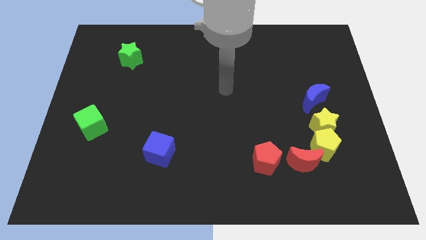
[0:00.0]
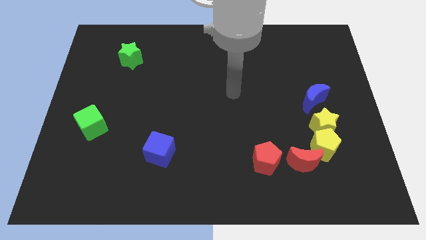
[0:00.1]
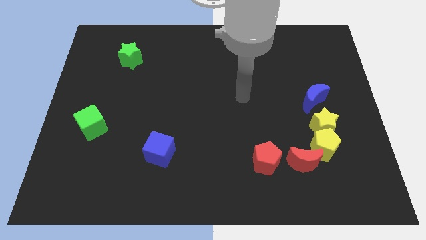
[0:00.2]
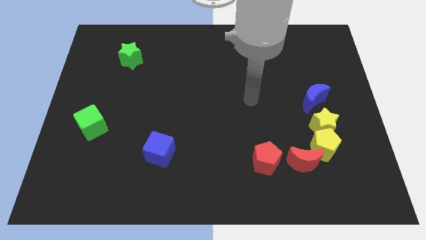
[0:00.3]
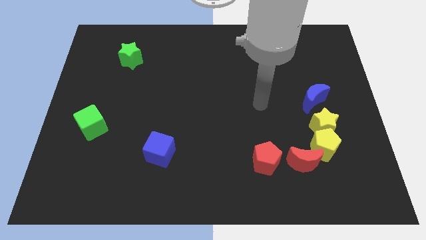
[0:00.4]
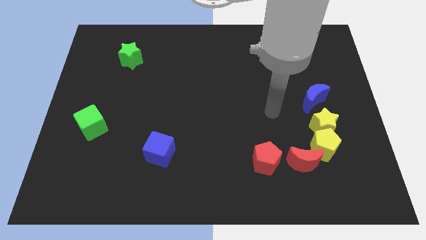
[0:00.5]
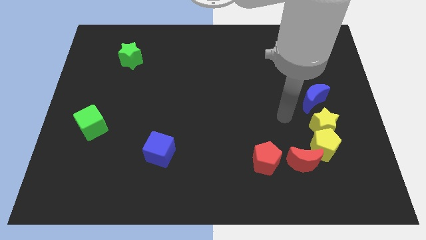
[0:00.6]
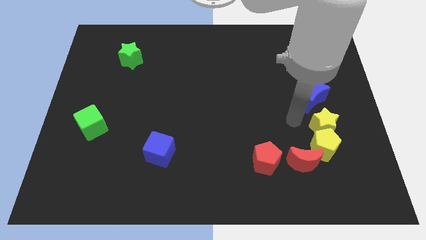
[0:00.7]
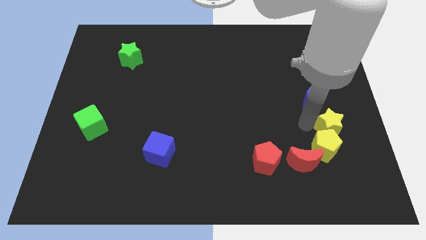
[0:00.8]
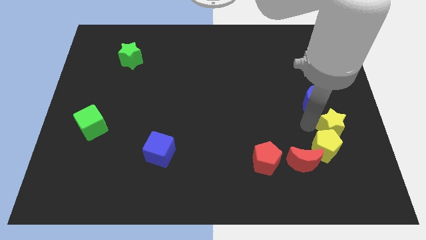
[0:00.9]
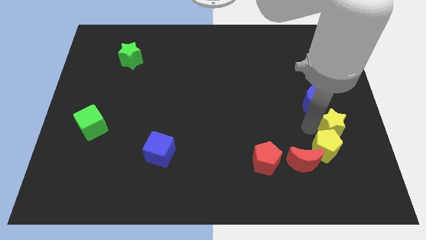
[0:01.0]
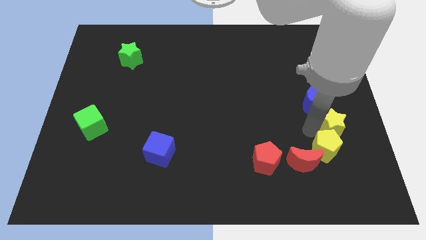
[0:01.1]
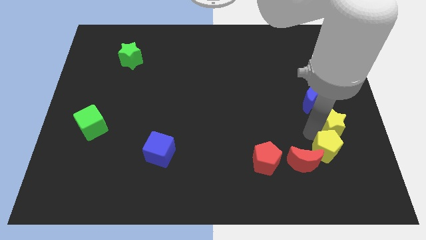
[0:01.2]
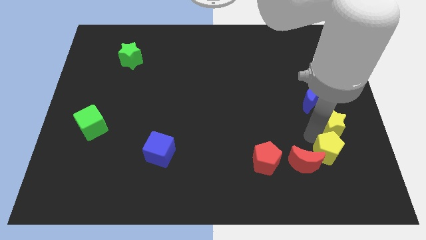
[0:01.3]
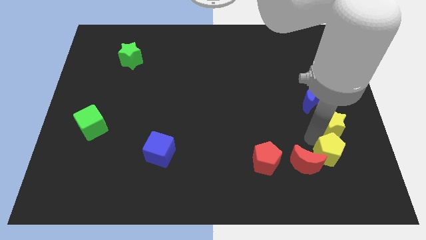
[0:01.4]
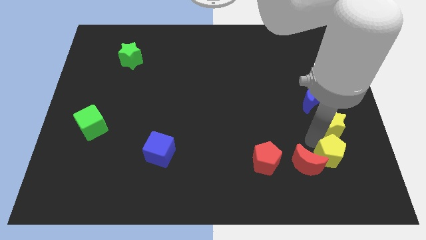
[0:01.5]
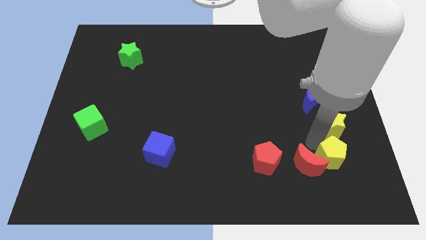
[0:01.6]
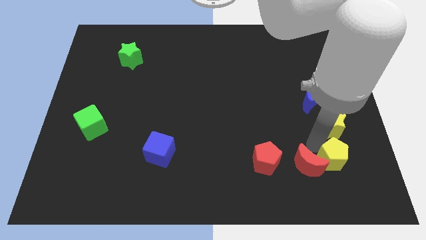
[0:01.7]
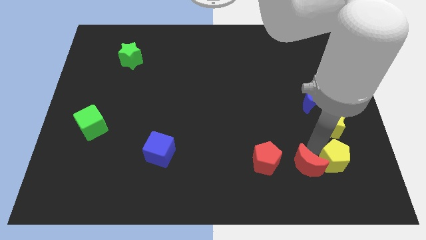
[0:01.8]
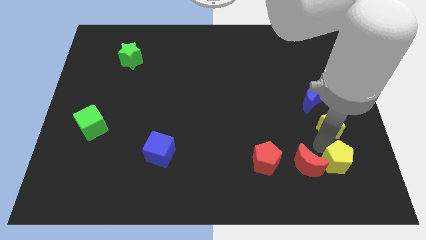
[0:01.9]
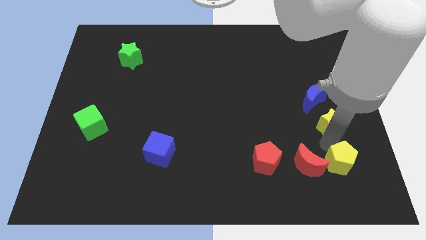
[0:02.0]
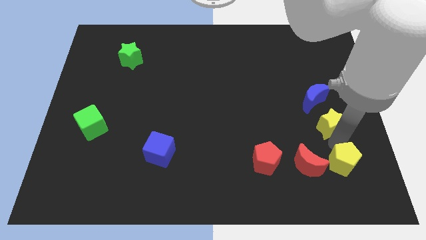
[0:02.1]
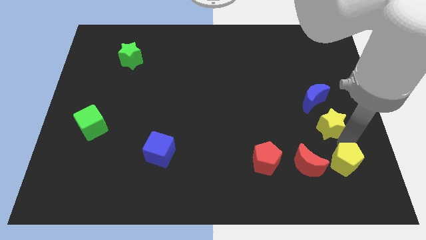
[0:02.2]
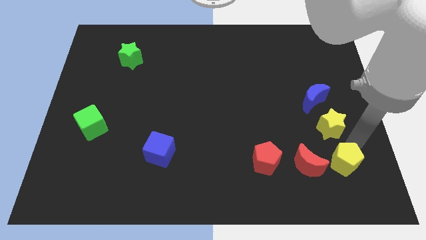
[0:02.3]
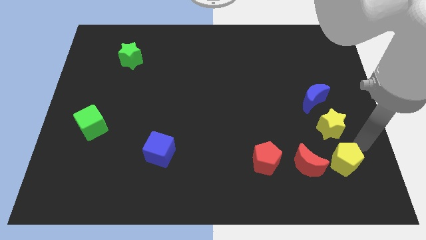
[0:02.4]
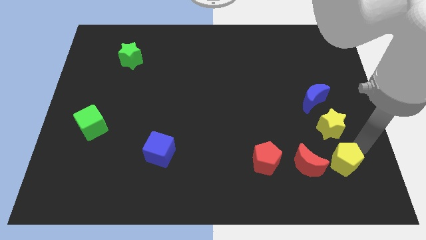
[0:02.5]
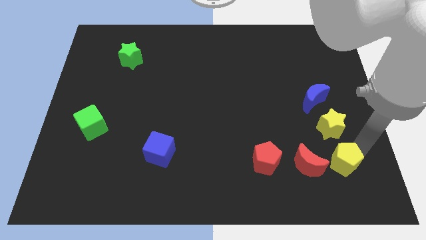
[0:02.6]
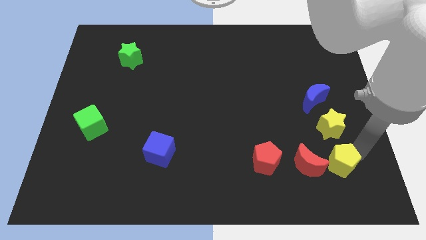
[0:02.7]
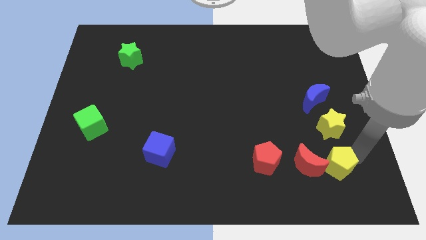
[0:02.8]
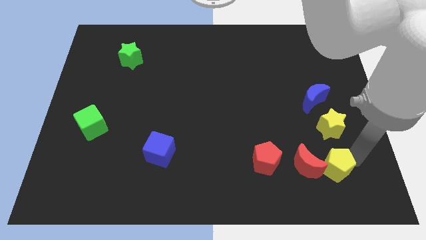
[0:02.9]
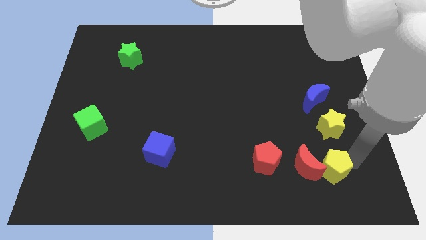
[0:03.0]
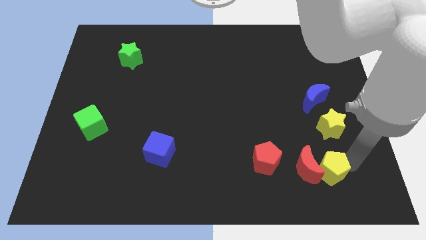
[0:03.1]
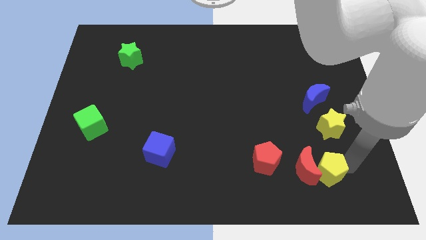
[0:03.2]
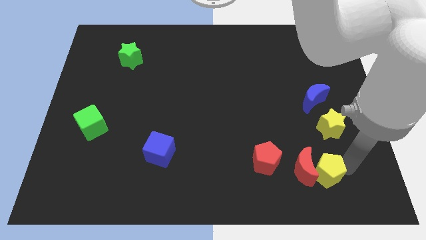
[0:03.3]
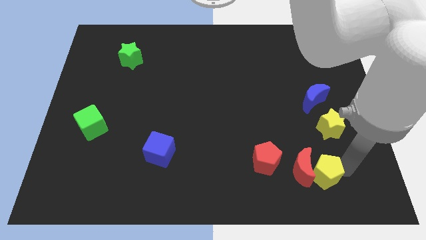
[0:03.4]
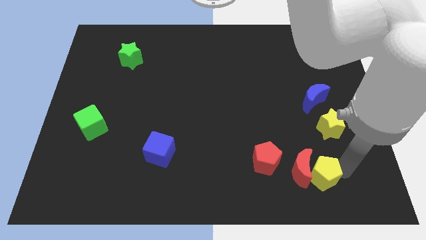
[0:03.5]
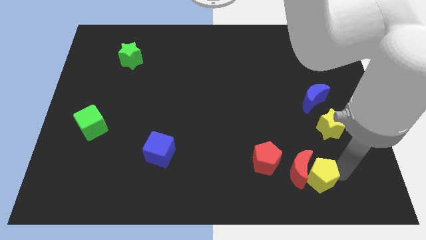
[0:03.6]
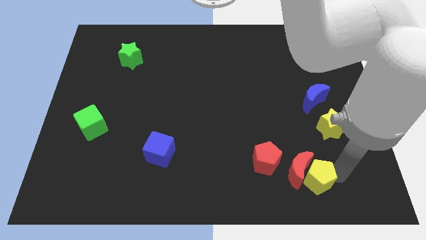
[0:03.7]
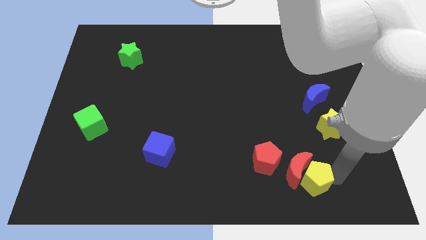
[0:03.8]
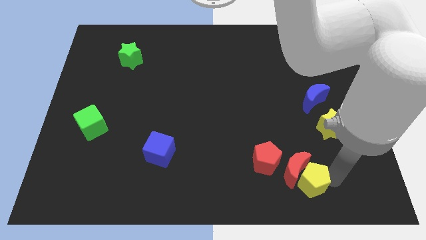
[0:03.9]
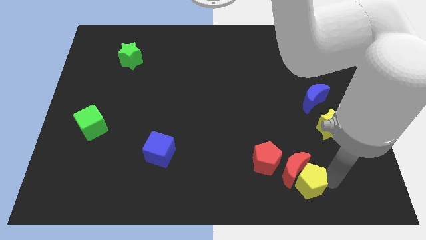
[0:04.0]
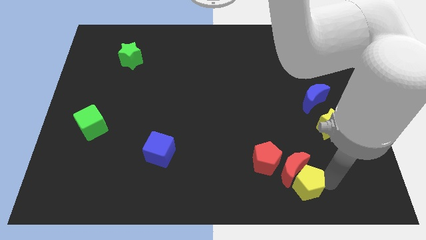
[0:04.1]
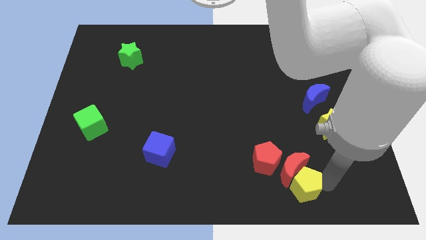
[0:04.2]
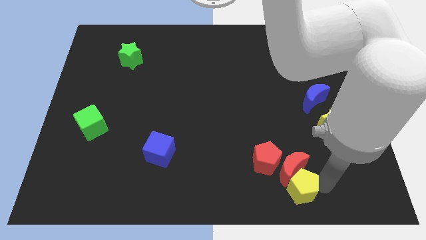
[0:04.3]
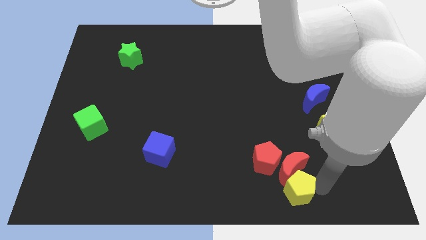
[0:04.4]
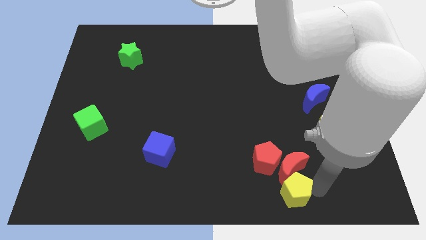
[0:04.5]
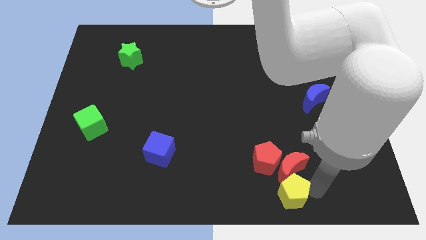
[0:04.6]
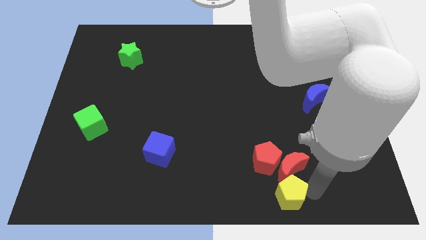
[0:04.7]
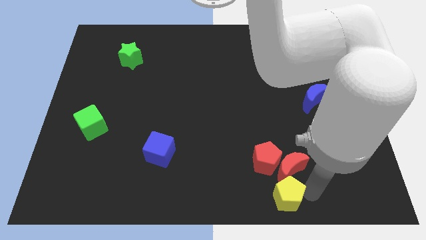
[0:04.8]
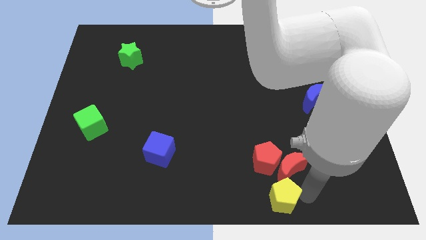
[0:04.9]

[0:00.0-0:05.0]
put the yellow pentagon to the bottom

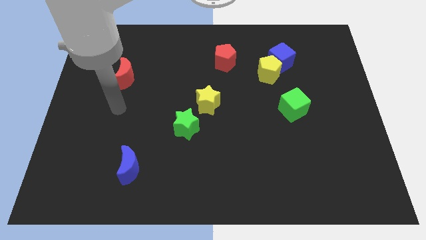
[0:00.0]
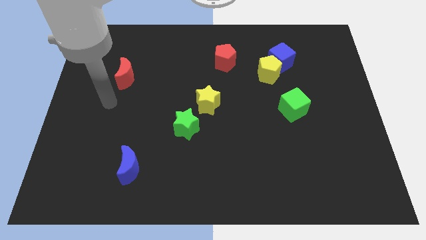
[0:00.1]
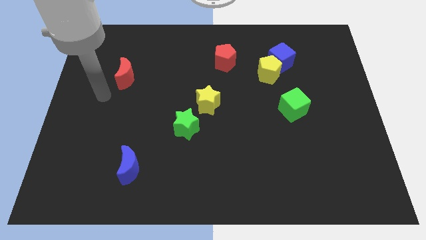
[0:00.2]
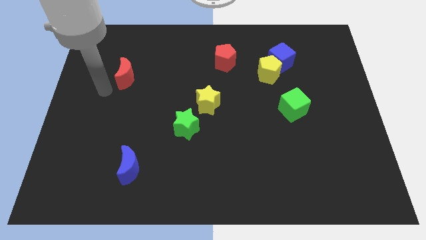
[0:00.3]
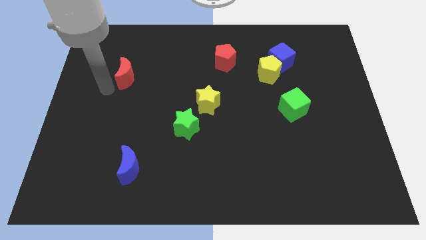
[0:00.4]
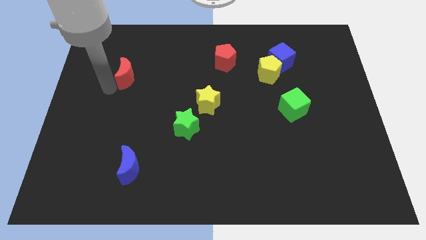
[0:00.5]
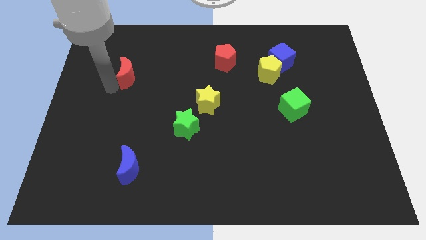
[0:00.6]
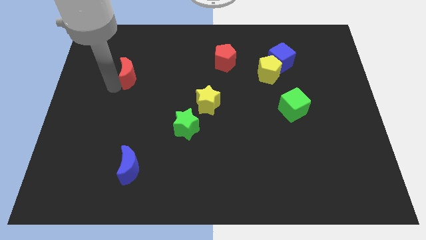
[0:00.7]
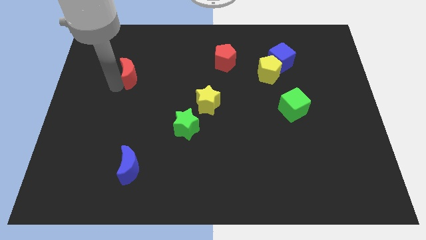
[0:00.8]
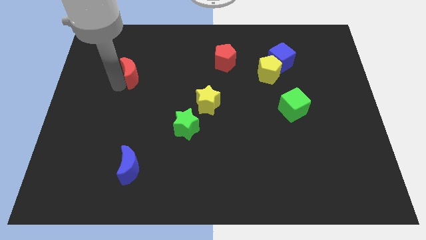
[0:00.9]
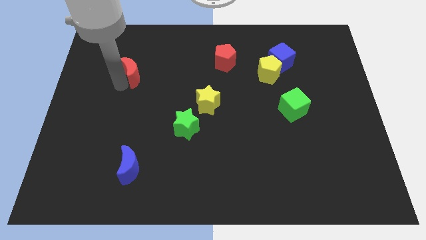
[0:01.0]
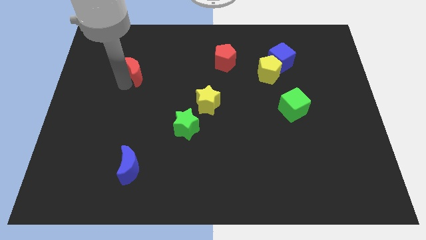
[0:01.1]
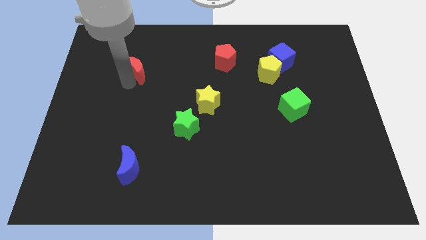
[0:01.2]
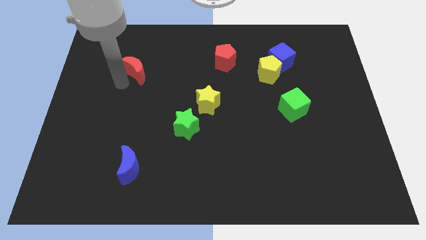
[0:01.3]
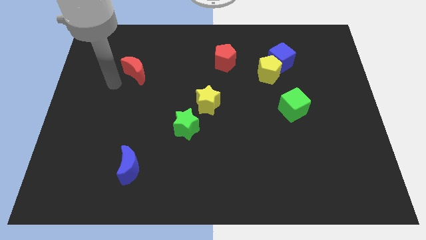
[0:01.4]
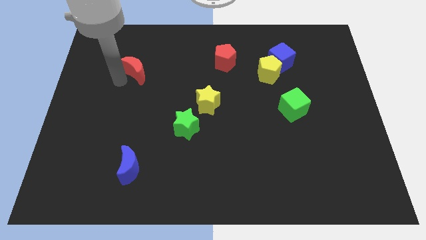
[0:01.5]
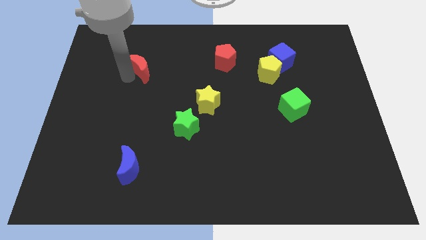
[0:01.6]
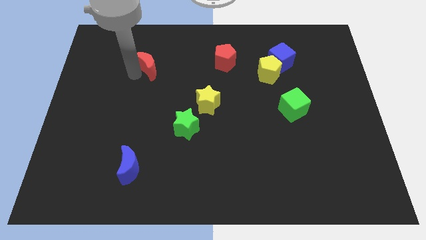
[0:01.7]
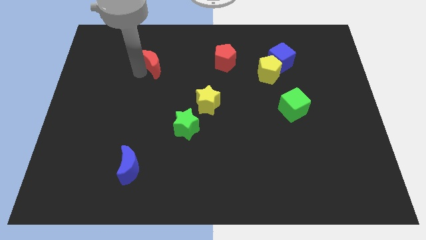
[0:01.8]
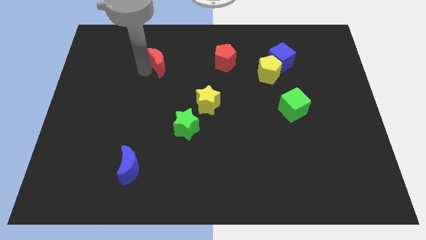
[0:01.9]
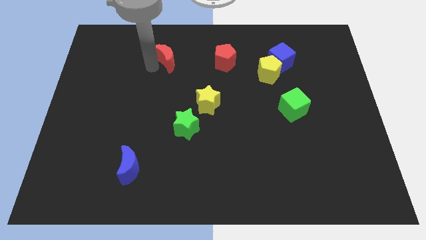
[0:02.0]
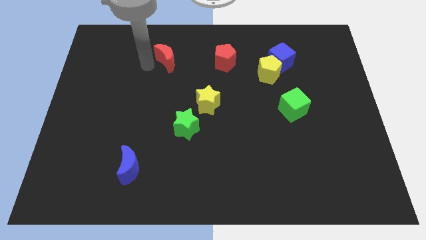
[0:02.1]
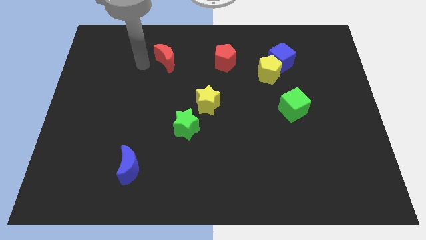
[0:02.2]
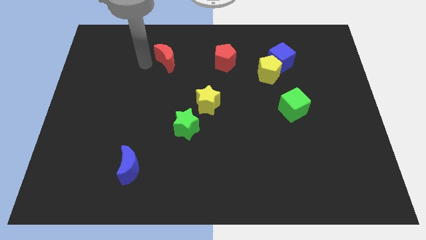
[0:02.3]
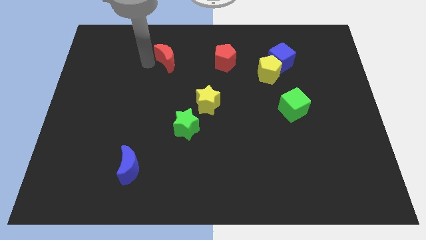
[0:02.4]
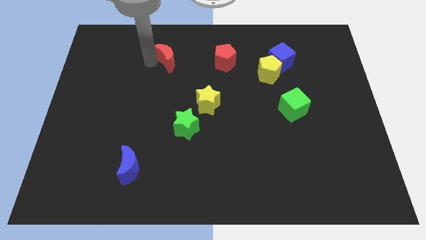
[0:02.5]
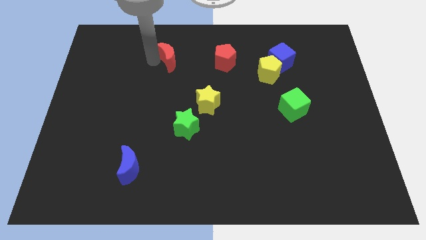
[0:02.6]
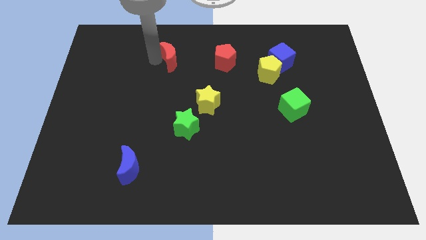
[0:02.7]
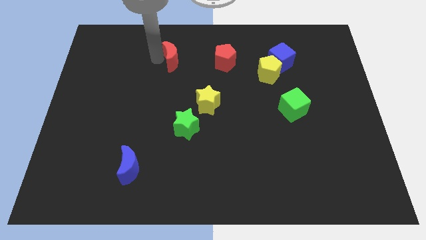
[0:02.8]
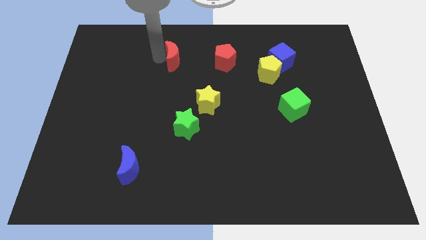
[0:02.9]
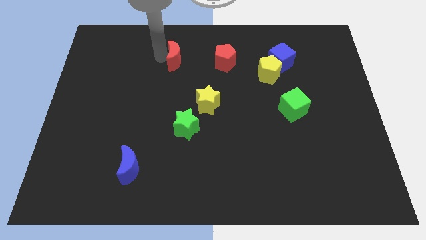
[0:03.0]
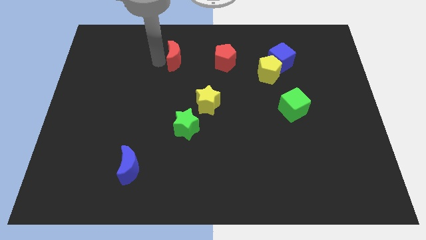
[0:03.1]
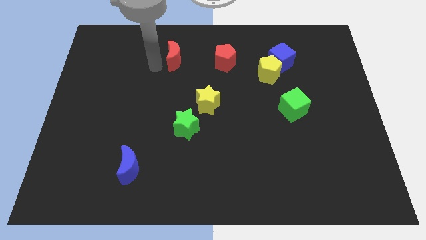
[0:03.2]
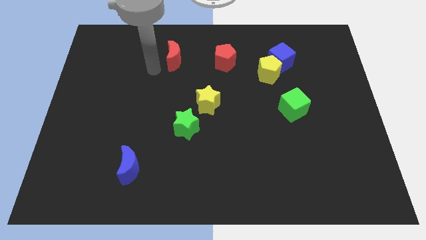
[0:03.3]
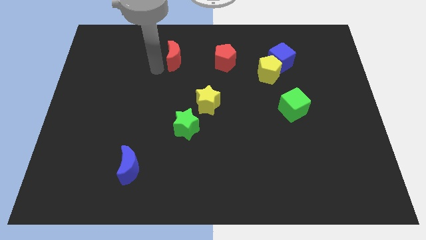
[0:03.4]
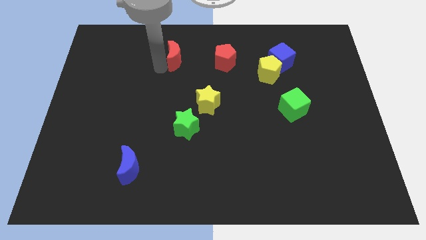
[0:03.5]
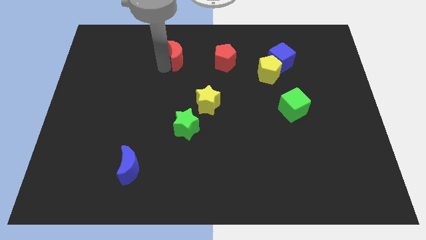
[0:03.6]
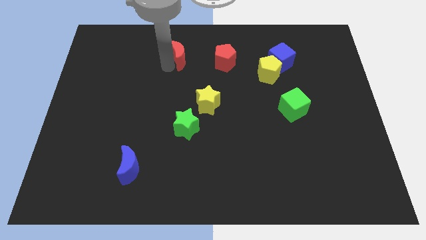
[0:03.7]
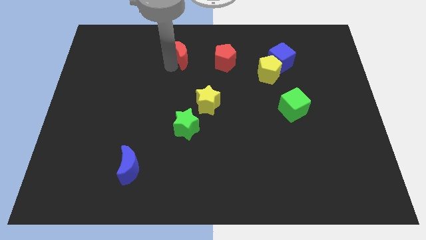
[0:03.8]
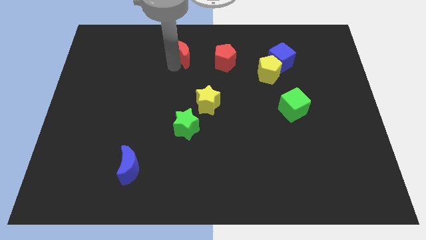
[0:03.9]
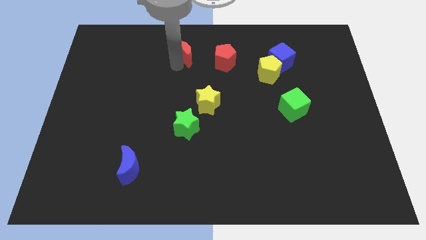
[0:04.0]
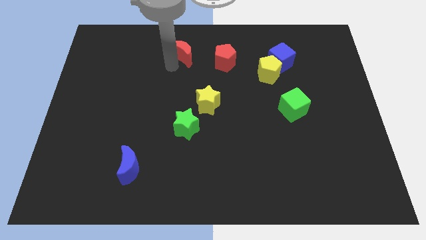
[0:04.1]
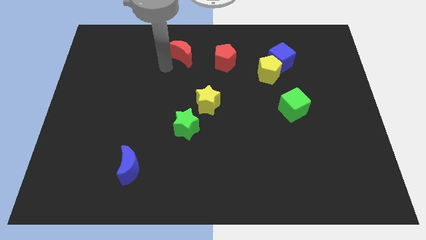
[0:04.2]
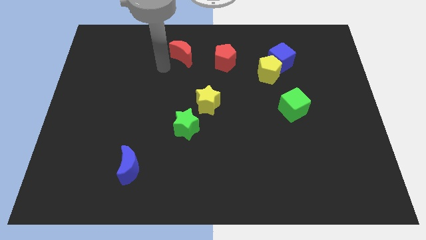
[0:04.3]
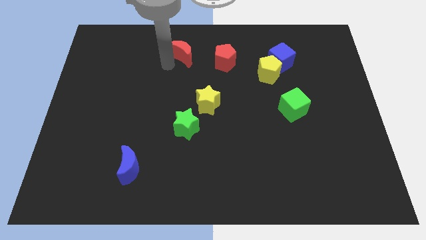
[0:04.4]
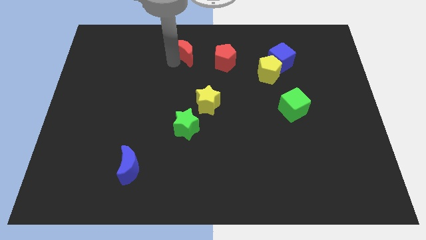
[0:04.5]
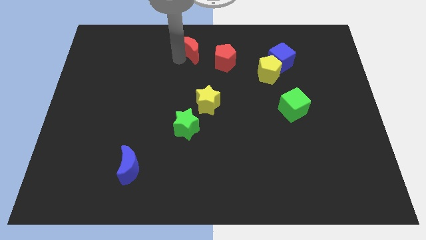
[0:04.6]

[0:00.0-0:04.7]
put the red moon to the top side
